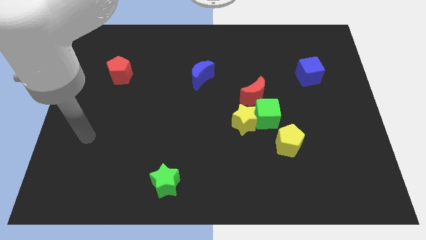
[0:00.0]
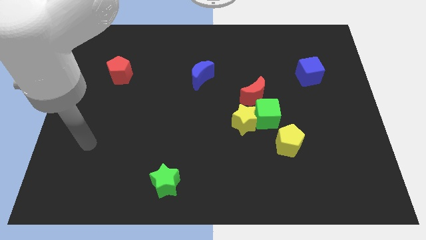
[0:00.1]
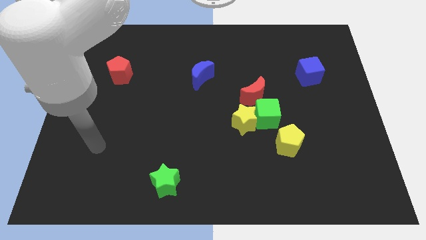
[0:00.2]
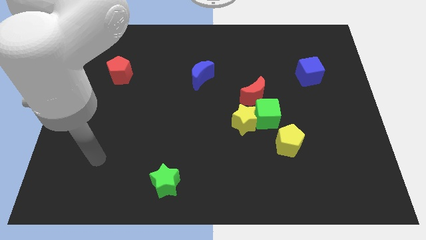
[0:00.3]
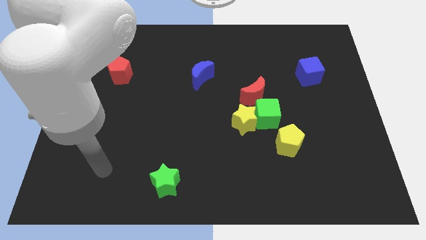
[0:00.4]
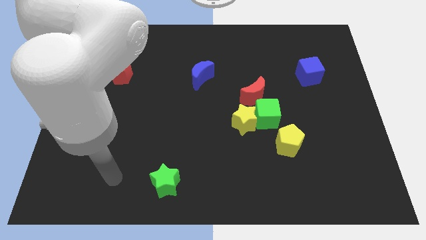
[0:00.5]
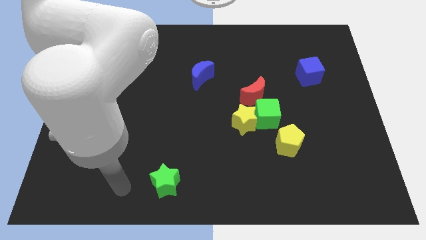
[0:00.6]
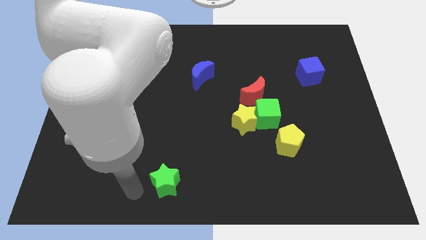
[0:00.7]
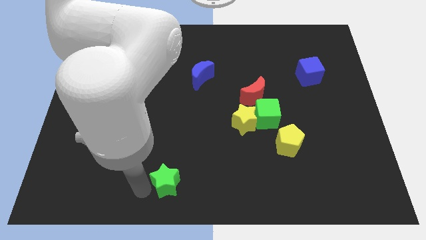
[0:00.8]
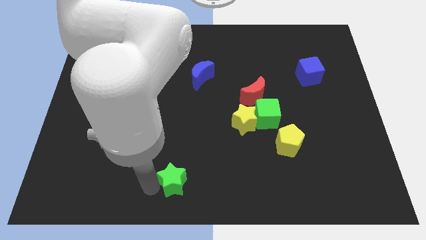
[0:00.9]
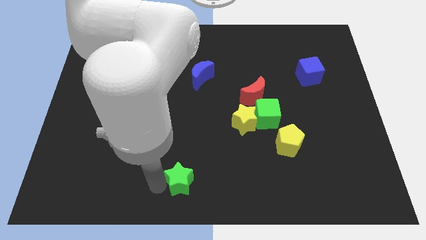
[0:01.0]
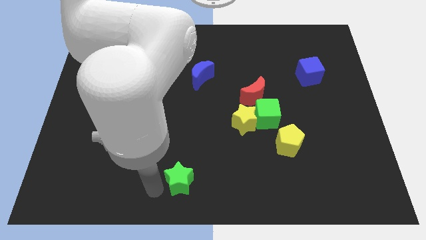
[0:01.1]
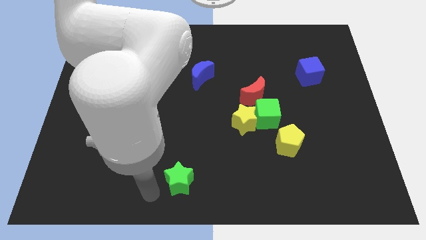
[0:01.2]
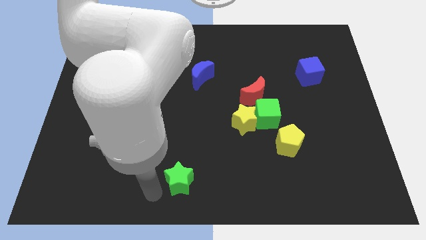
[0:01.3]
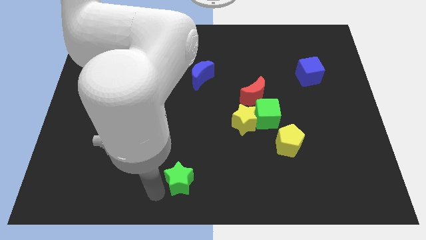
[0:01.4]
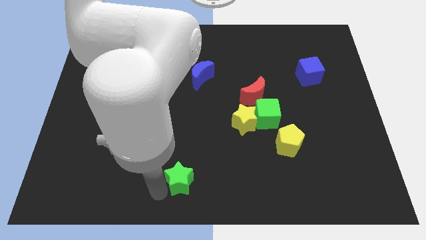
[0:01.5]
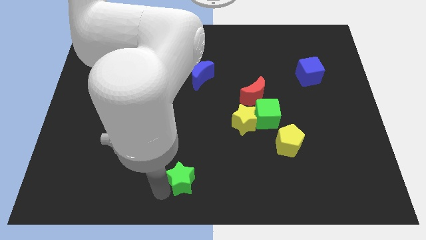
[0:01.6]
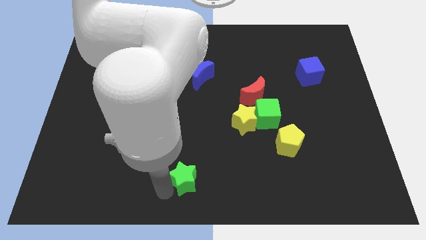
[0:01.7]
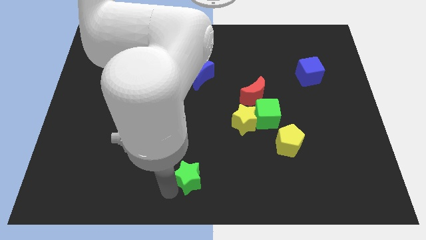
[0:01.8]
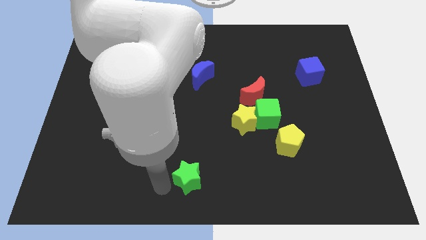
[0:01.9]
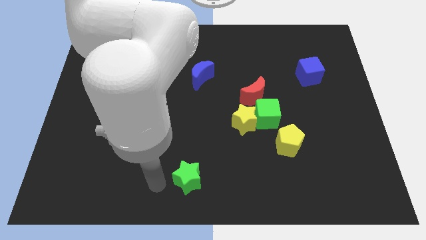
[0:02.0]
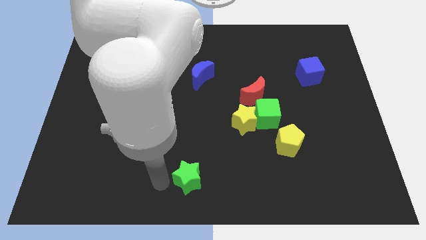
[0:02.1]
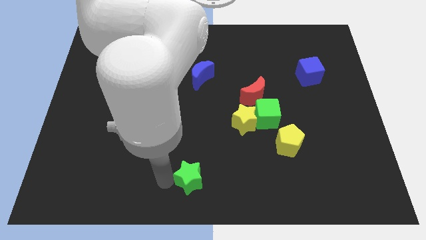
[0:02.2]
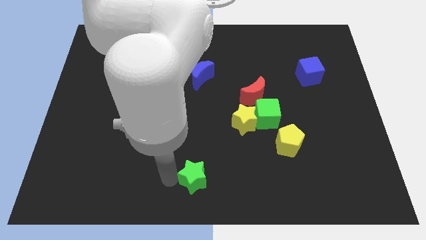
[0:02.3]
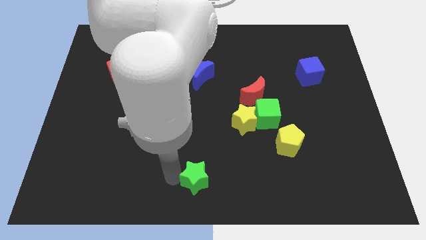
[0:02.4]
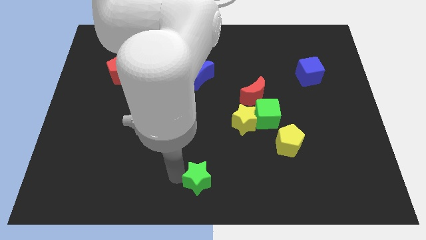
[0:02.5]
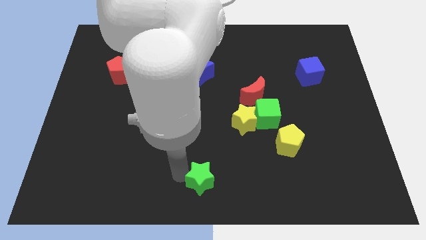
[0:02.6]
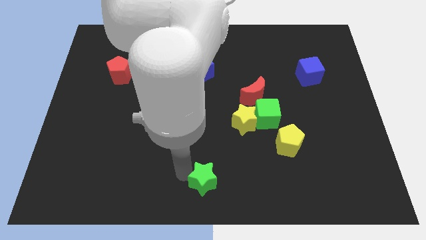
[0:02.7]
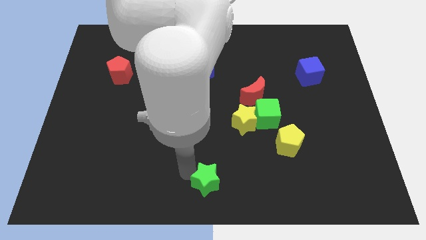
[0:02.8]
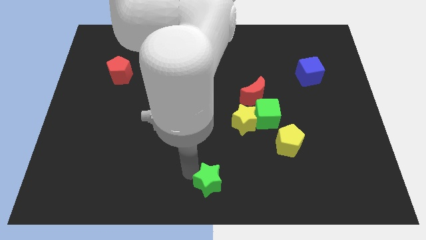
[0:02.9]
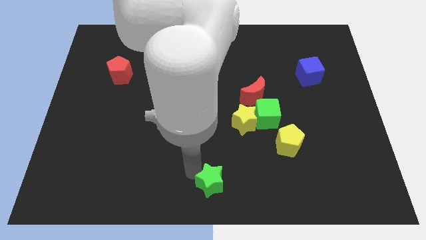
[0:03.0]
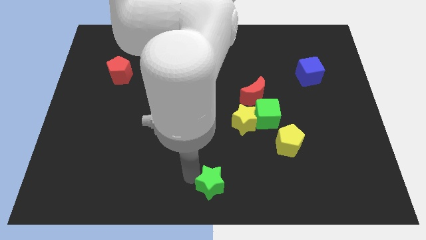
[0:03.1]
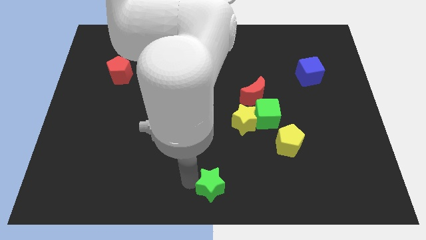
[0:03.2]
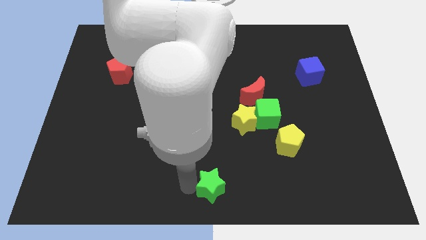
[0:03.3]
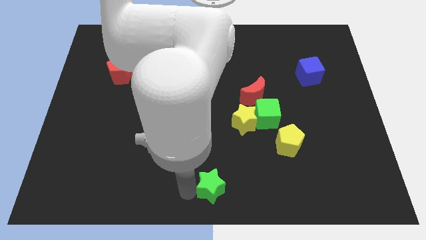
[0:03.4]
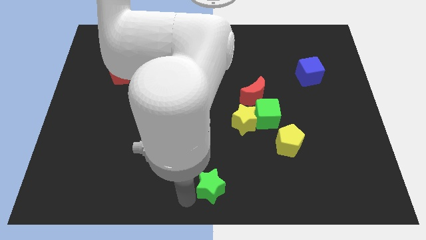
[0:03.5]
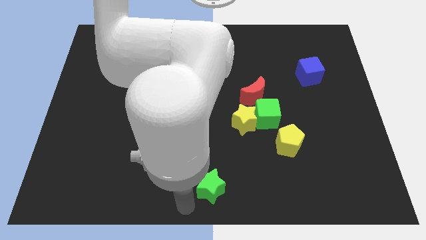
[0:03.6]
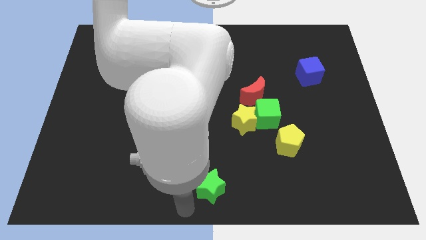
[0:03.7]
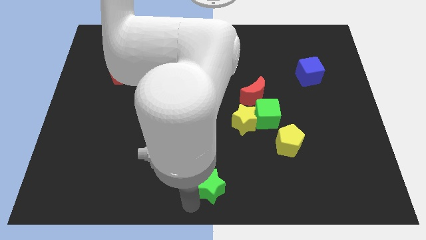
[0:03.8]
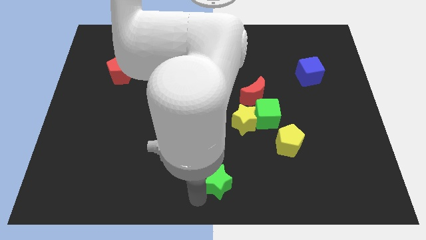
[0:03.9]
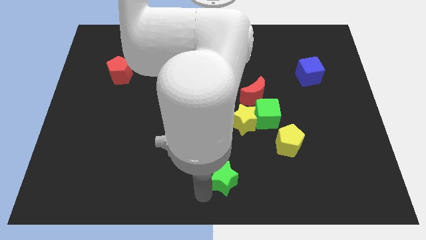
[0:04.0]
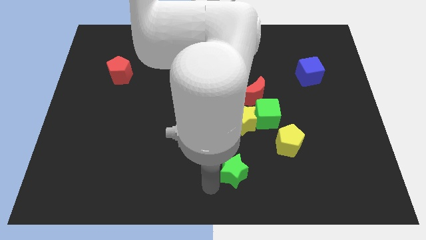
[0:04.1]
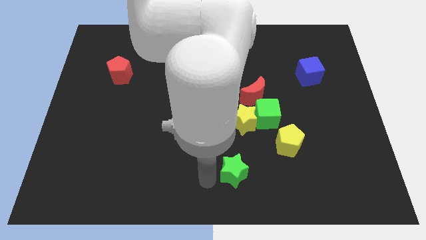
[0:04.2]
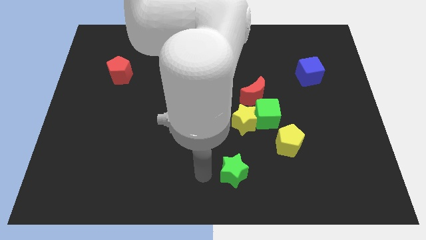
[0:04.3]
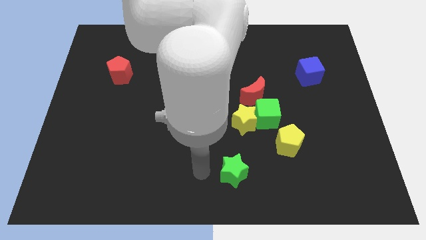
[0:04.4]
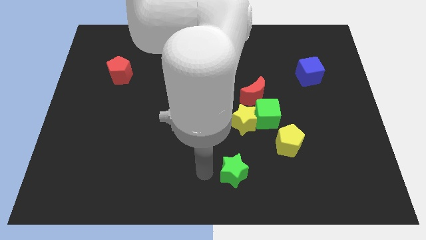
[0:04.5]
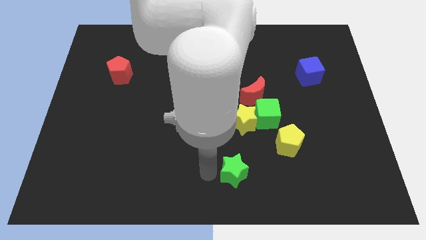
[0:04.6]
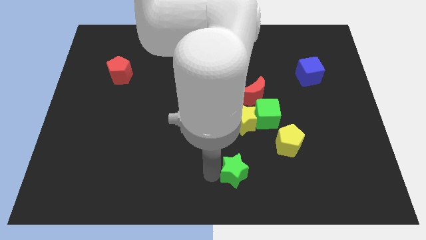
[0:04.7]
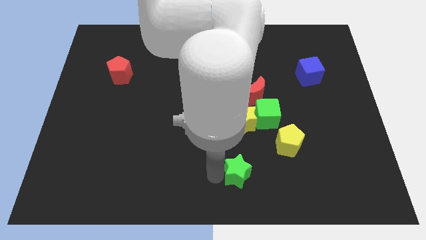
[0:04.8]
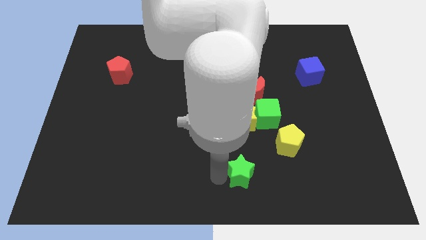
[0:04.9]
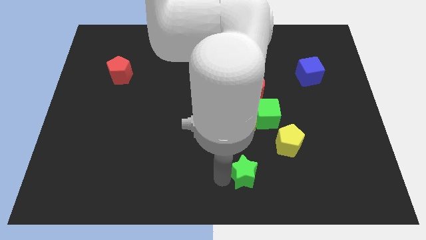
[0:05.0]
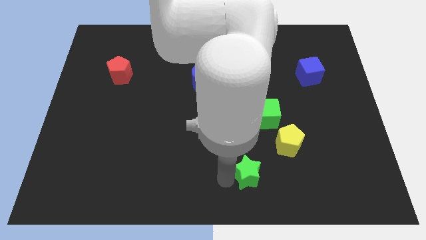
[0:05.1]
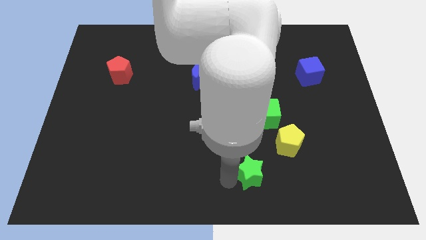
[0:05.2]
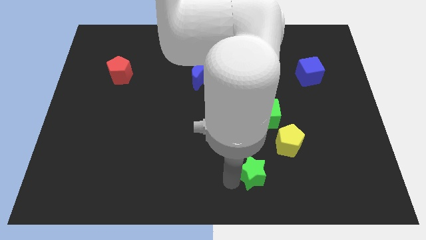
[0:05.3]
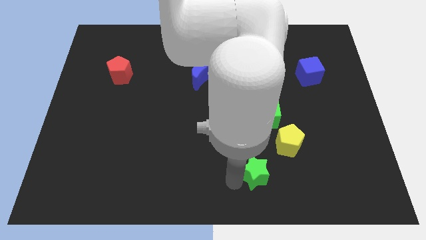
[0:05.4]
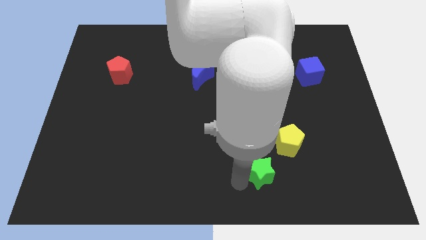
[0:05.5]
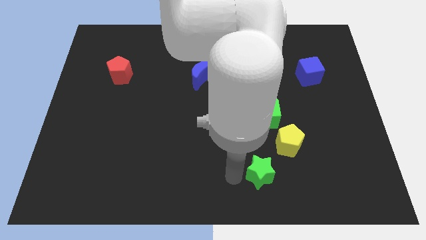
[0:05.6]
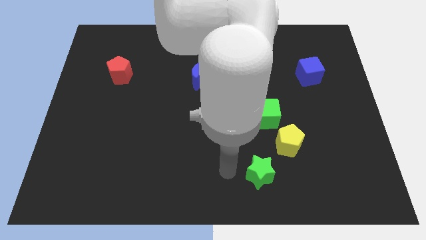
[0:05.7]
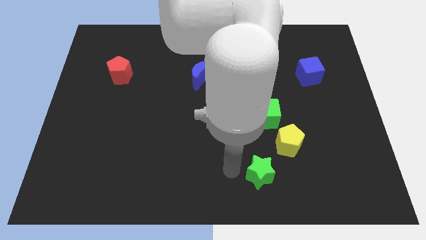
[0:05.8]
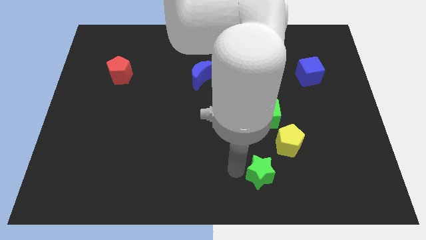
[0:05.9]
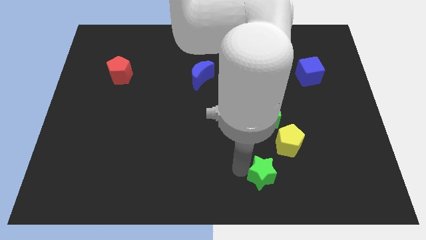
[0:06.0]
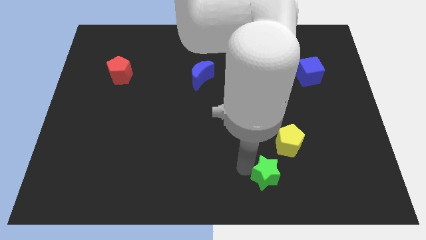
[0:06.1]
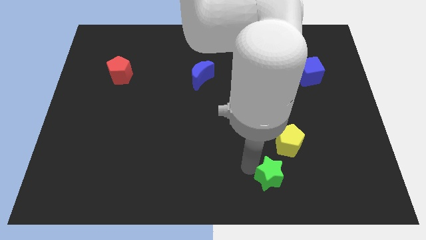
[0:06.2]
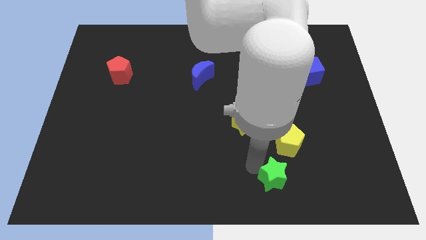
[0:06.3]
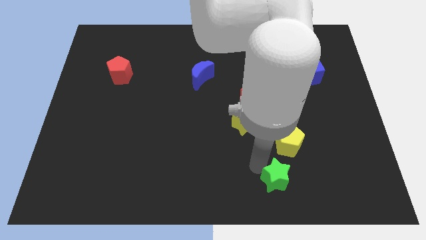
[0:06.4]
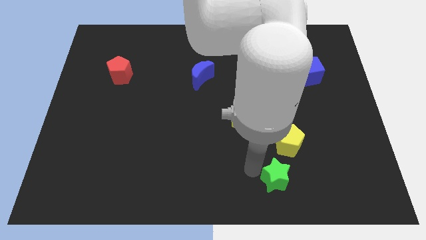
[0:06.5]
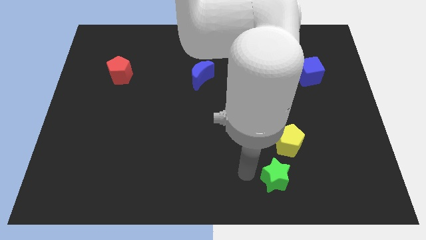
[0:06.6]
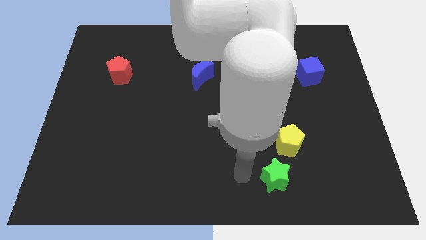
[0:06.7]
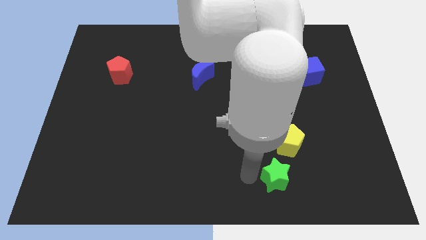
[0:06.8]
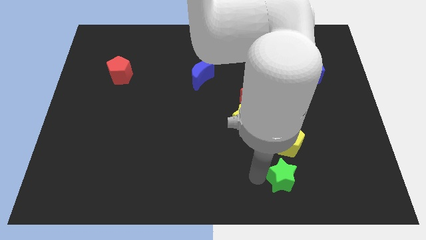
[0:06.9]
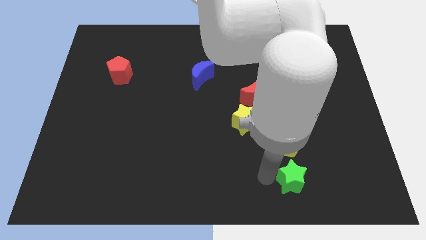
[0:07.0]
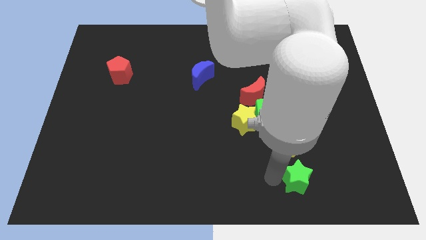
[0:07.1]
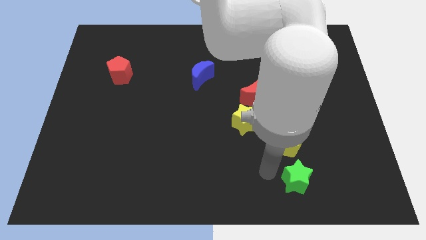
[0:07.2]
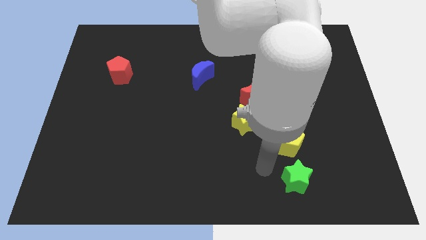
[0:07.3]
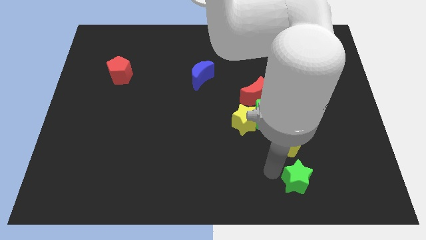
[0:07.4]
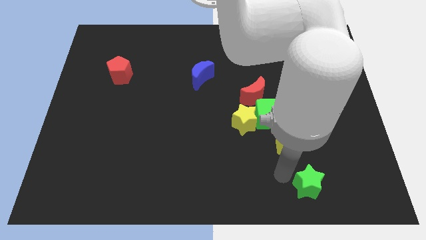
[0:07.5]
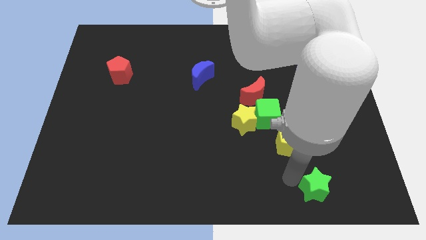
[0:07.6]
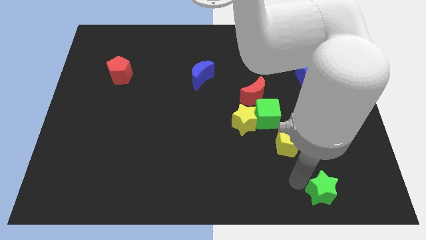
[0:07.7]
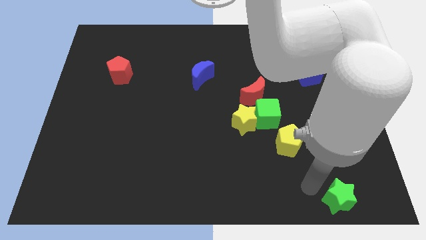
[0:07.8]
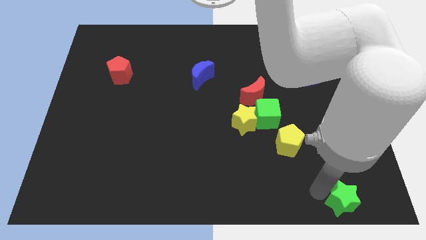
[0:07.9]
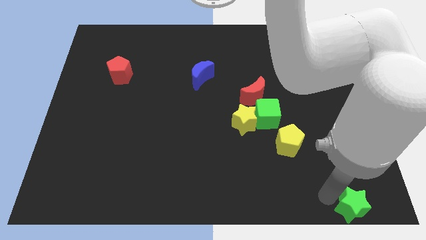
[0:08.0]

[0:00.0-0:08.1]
push the green star to the bottom right corner
